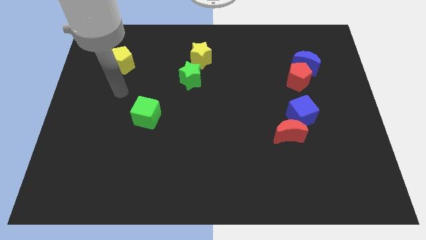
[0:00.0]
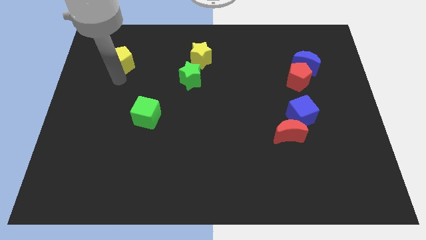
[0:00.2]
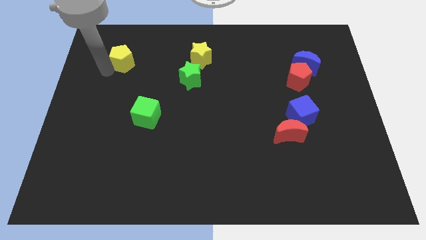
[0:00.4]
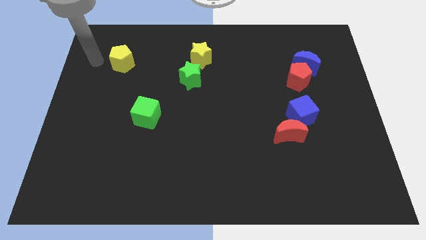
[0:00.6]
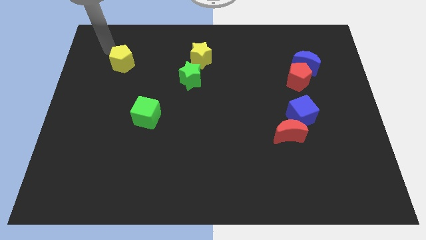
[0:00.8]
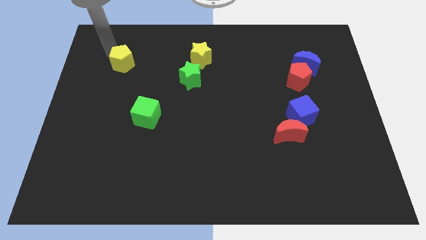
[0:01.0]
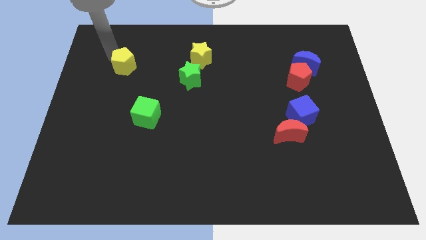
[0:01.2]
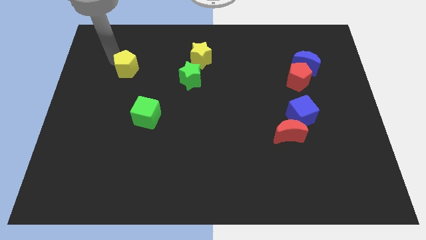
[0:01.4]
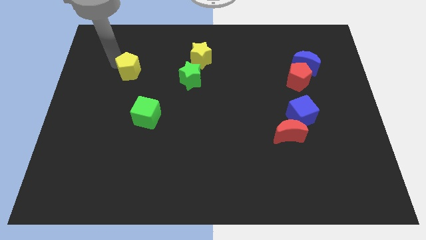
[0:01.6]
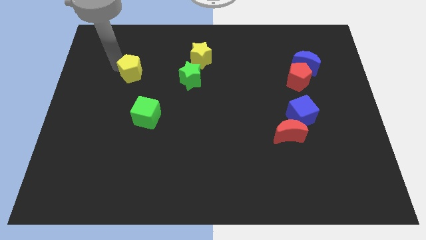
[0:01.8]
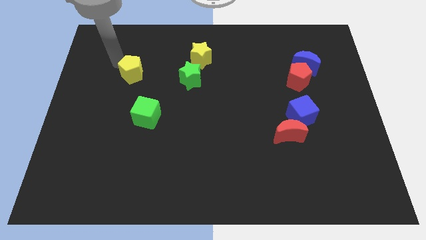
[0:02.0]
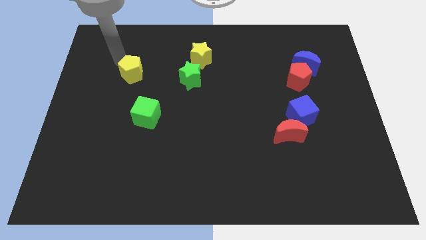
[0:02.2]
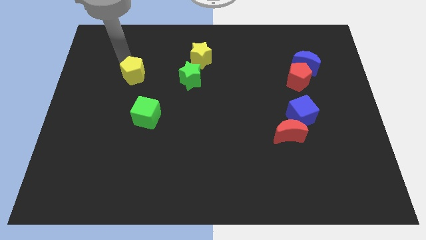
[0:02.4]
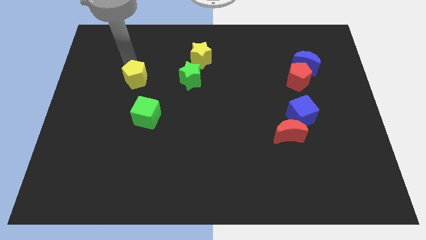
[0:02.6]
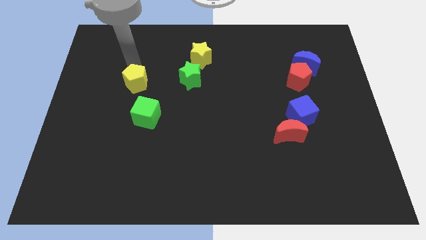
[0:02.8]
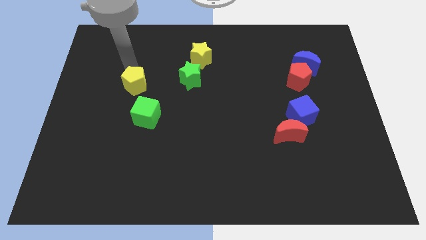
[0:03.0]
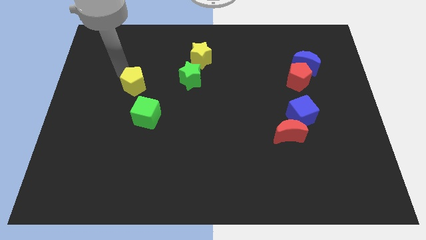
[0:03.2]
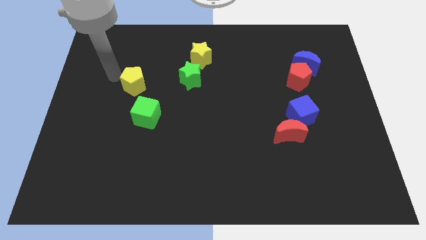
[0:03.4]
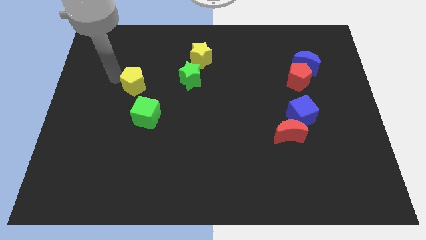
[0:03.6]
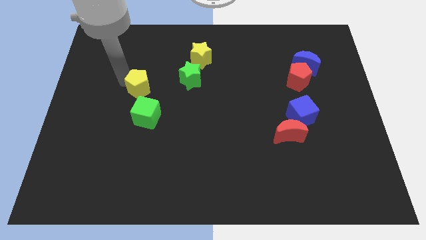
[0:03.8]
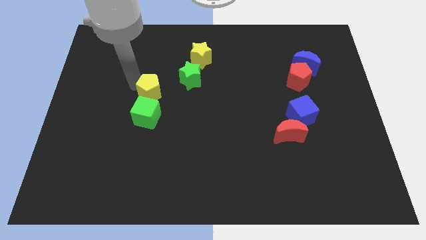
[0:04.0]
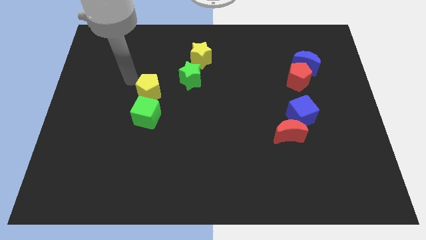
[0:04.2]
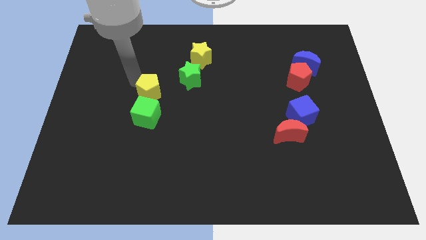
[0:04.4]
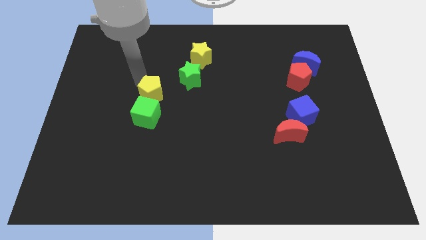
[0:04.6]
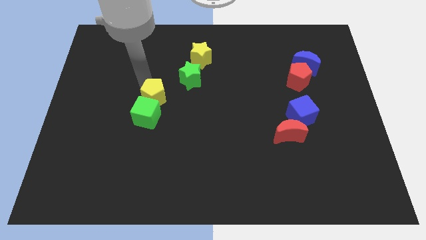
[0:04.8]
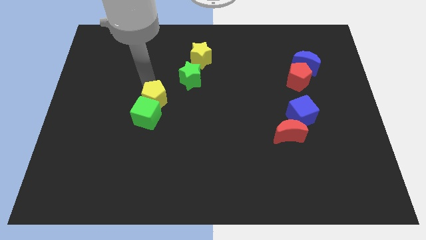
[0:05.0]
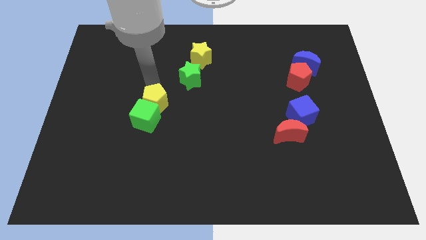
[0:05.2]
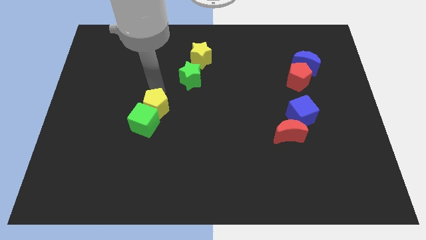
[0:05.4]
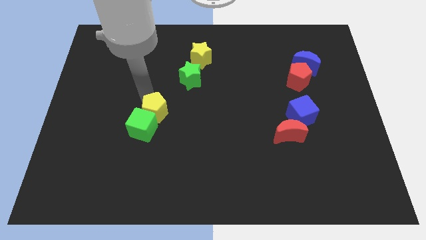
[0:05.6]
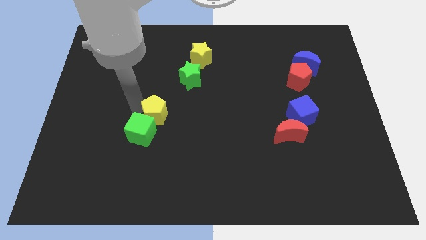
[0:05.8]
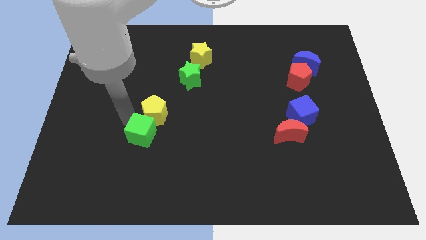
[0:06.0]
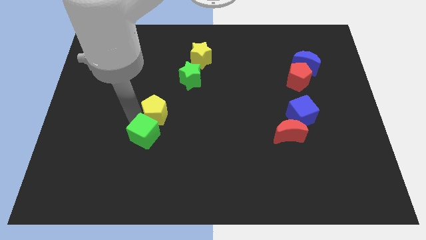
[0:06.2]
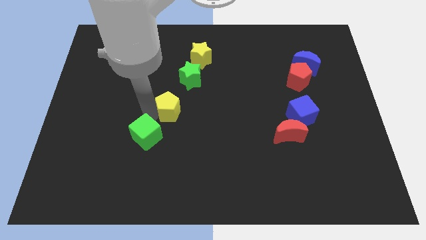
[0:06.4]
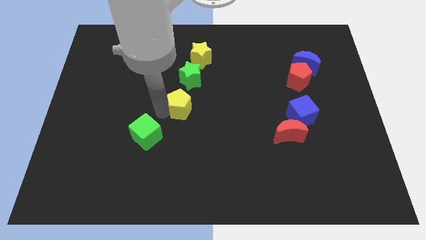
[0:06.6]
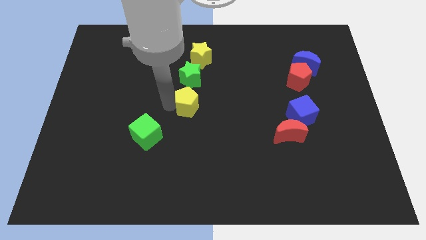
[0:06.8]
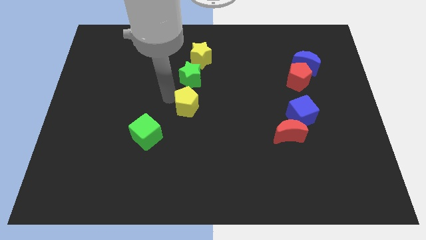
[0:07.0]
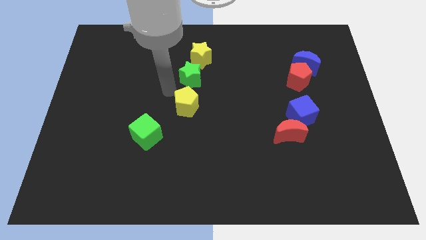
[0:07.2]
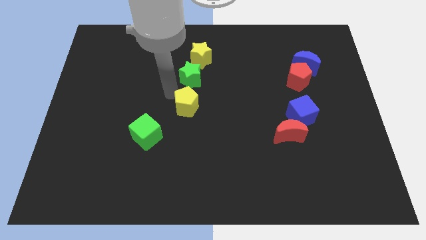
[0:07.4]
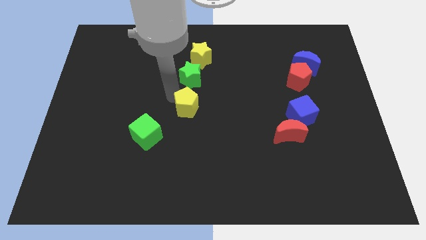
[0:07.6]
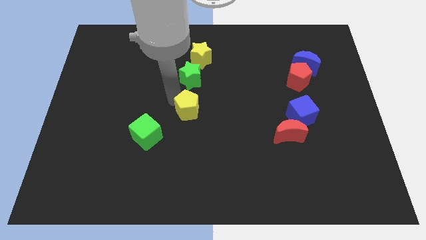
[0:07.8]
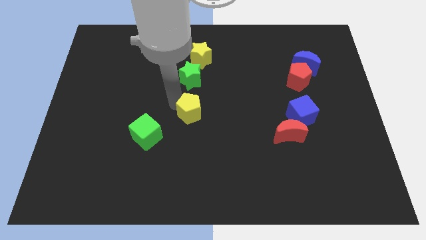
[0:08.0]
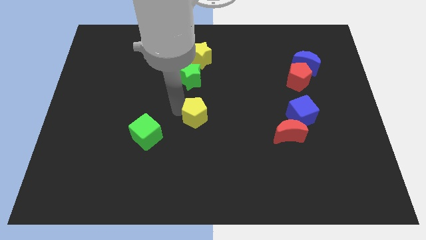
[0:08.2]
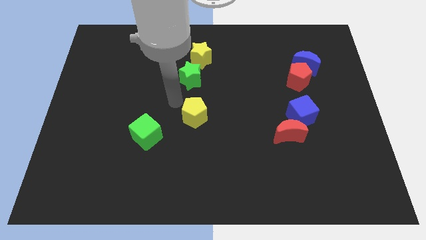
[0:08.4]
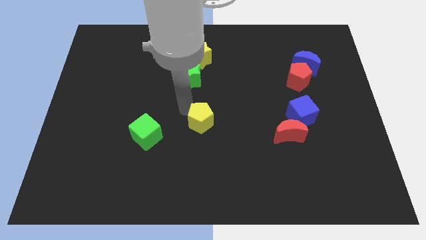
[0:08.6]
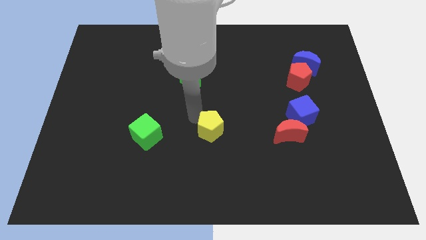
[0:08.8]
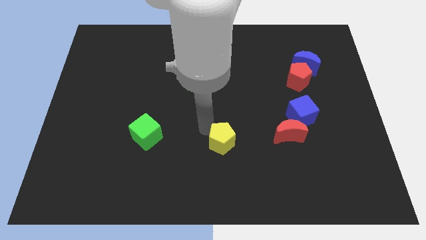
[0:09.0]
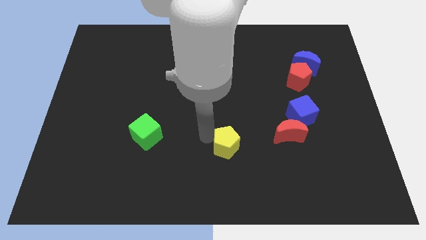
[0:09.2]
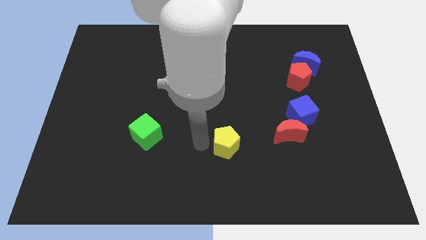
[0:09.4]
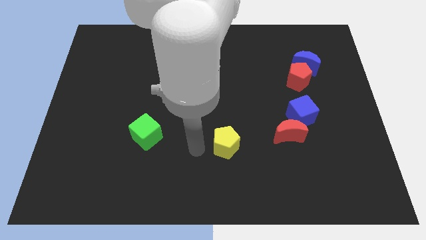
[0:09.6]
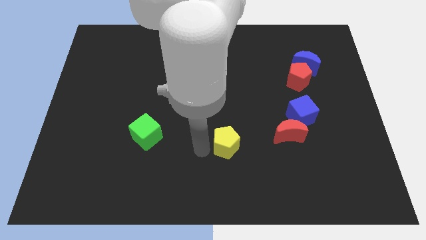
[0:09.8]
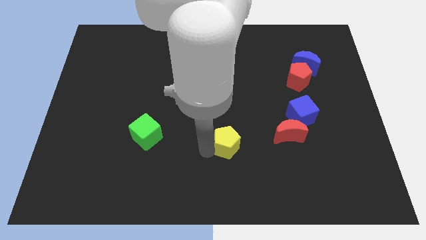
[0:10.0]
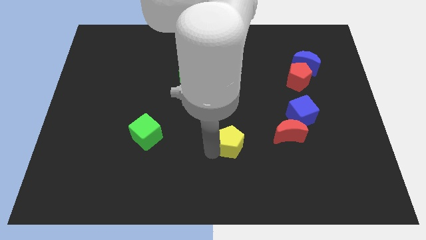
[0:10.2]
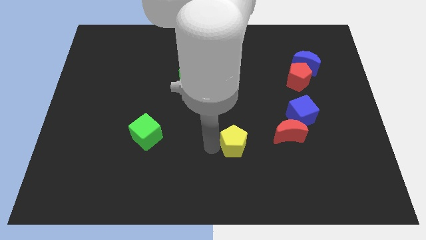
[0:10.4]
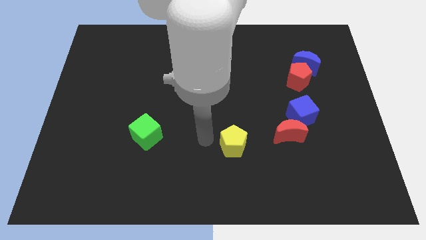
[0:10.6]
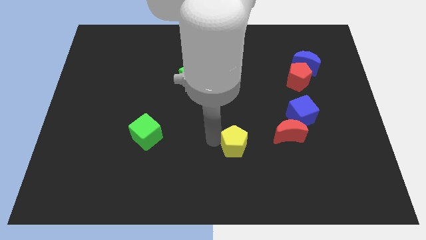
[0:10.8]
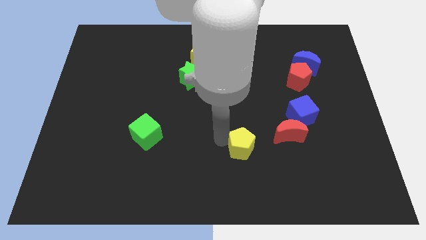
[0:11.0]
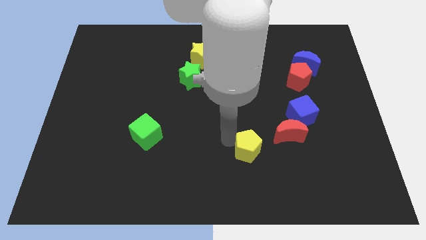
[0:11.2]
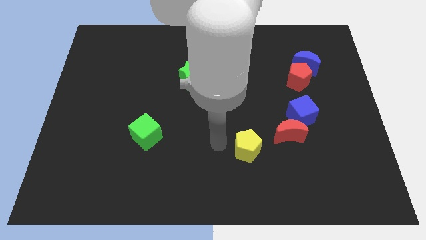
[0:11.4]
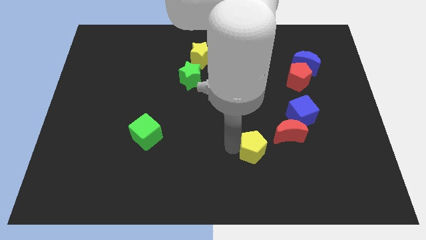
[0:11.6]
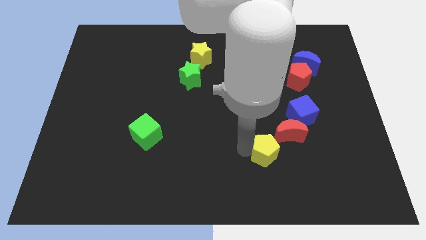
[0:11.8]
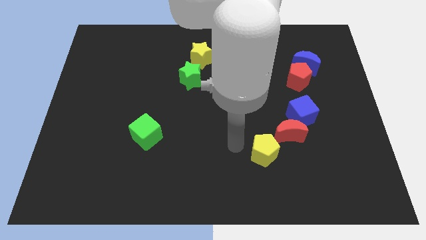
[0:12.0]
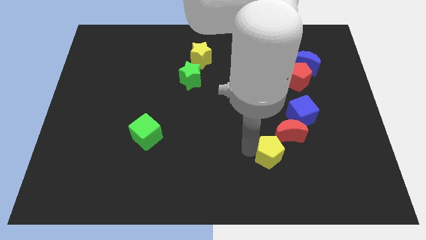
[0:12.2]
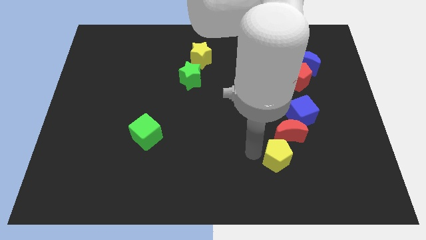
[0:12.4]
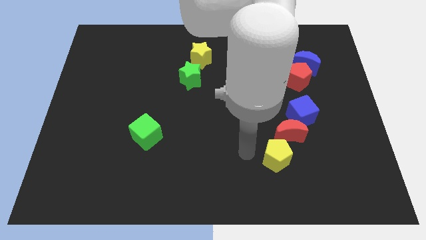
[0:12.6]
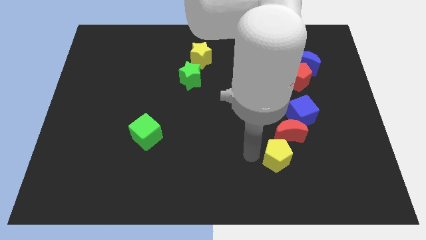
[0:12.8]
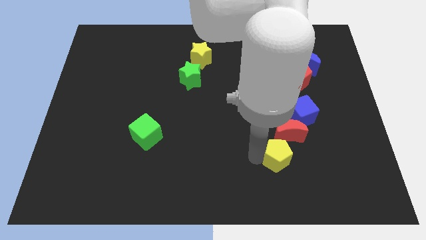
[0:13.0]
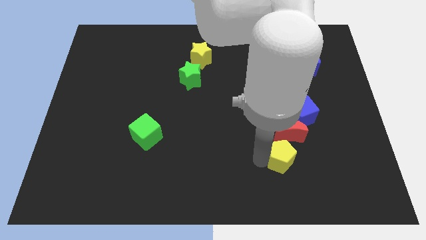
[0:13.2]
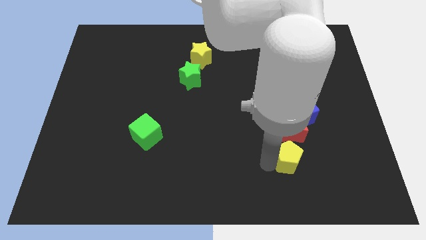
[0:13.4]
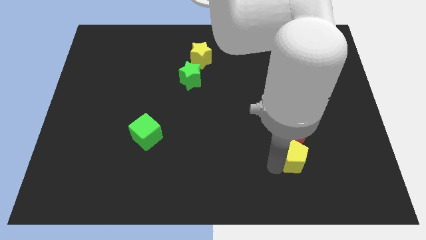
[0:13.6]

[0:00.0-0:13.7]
put the yellow pentagon diagonally down and to the right of the red moon

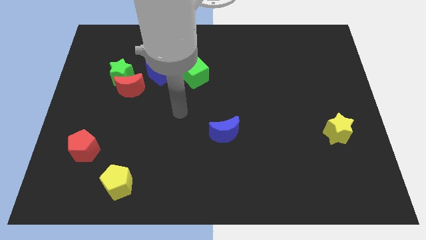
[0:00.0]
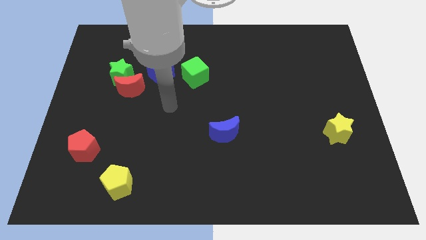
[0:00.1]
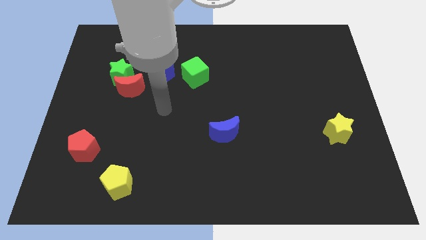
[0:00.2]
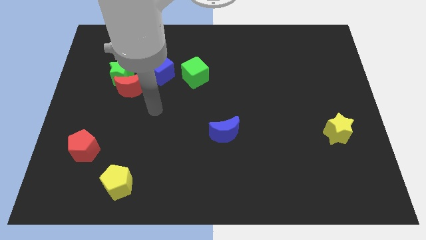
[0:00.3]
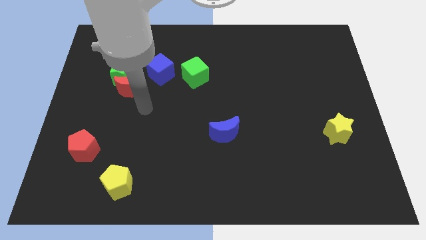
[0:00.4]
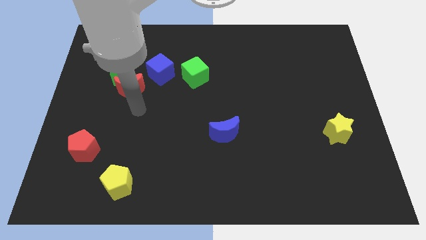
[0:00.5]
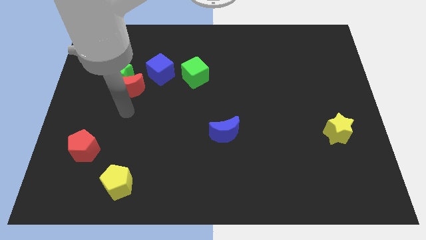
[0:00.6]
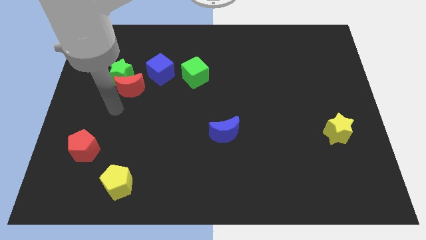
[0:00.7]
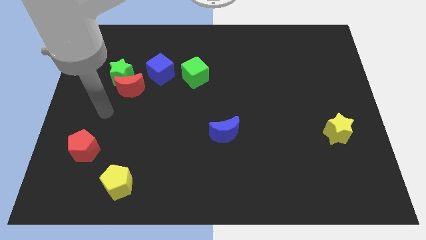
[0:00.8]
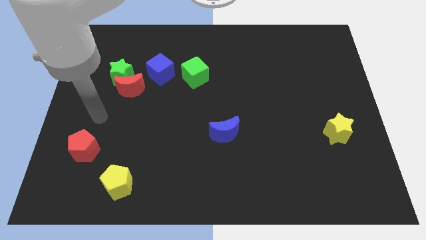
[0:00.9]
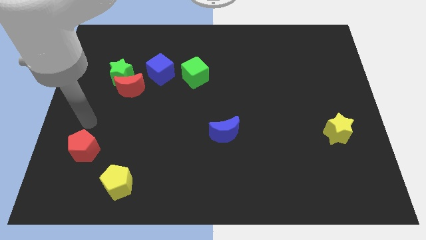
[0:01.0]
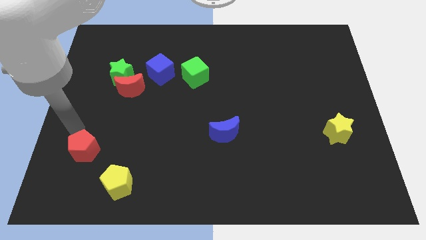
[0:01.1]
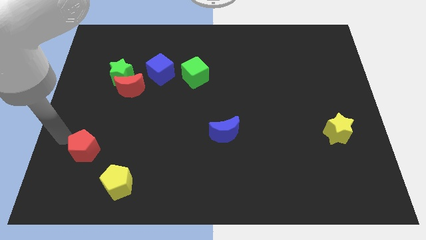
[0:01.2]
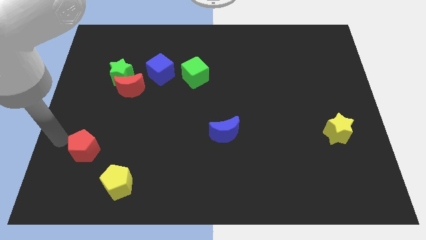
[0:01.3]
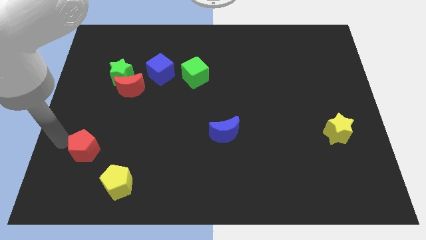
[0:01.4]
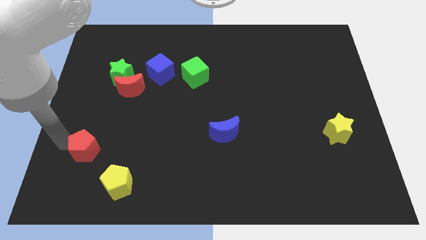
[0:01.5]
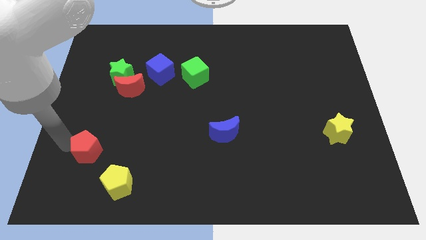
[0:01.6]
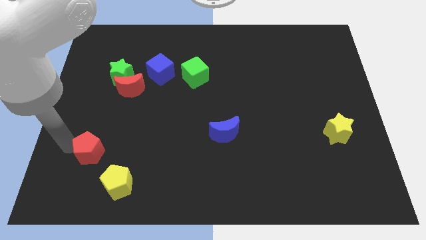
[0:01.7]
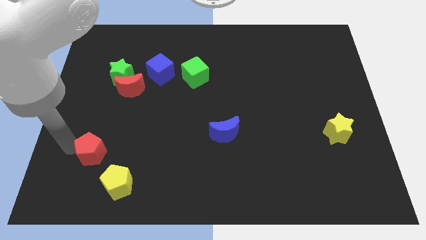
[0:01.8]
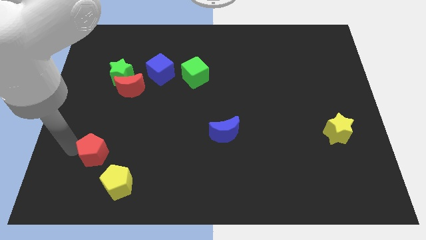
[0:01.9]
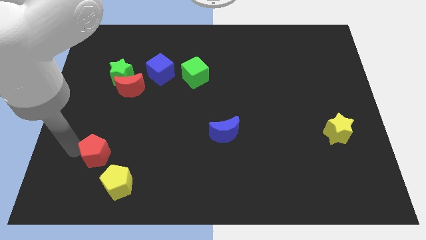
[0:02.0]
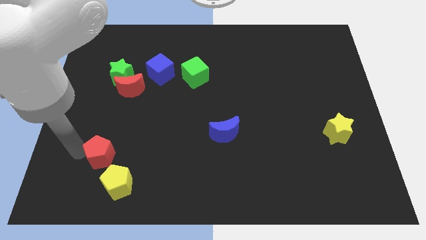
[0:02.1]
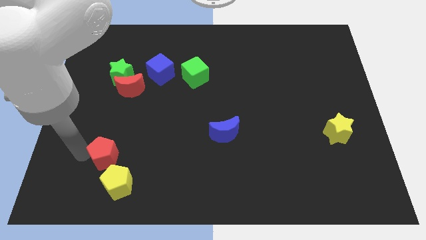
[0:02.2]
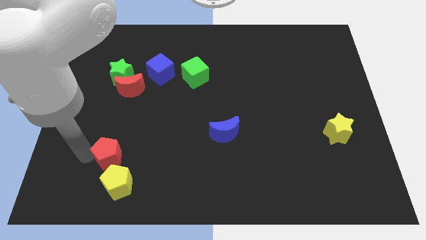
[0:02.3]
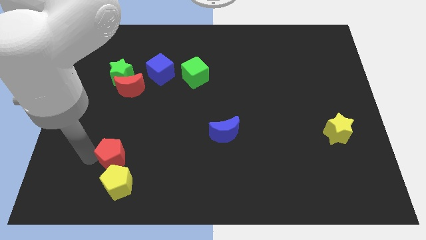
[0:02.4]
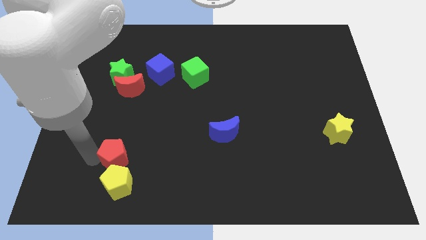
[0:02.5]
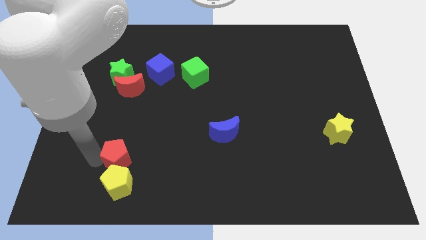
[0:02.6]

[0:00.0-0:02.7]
push the red pentagon to the top right side of the yellow pentagon
